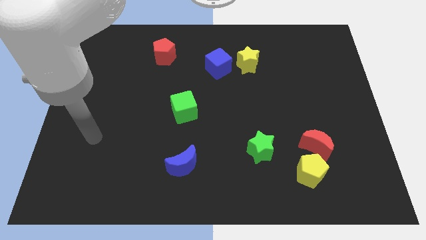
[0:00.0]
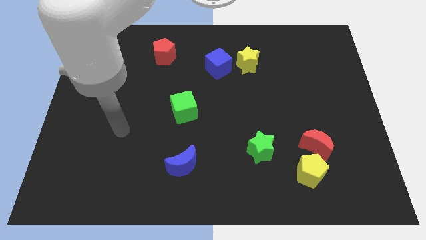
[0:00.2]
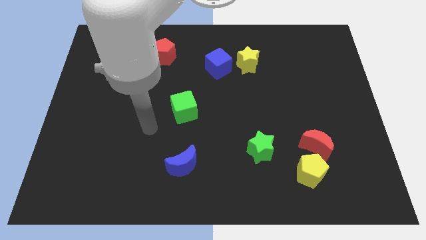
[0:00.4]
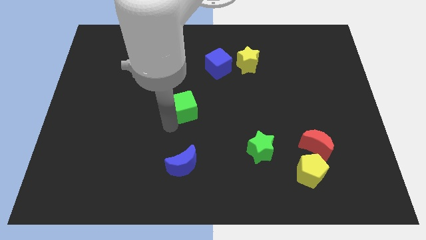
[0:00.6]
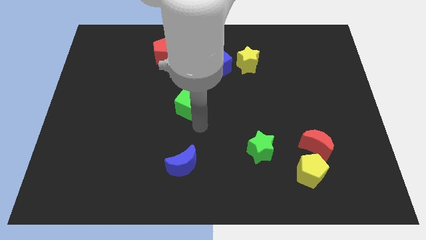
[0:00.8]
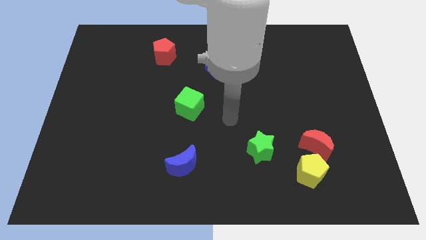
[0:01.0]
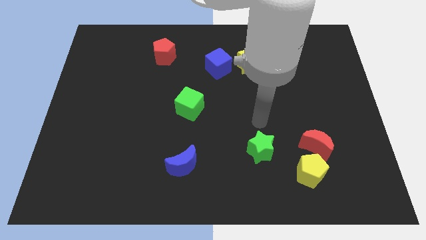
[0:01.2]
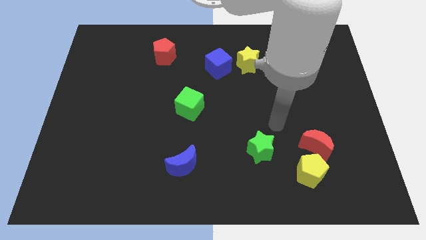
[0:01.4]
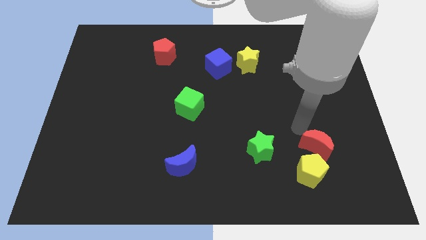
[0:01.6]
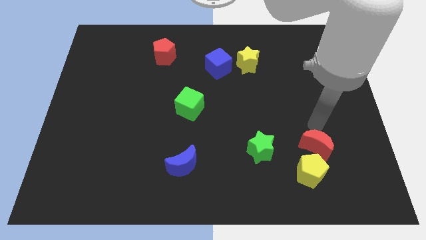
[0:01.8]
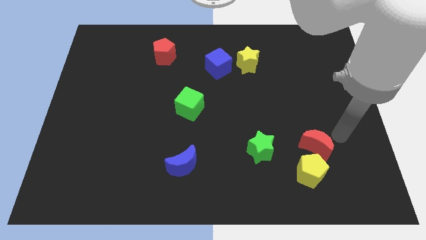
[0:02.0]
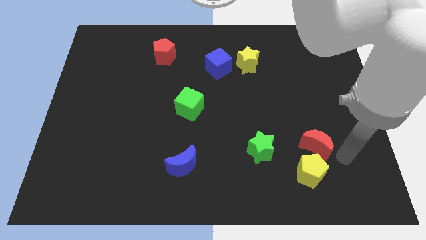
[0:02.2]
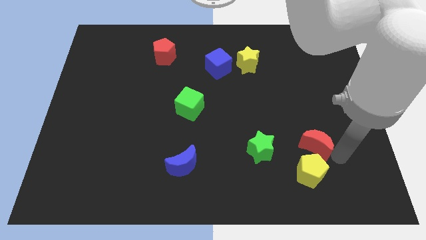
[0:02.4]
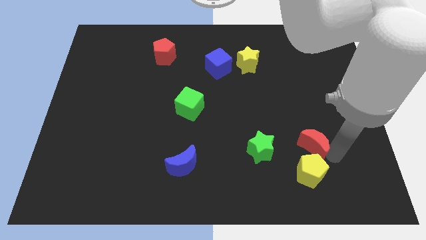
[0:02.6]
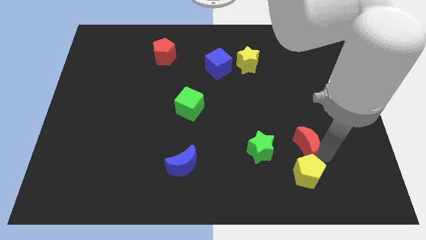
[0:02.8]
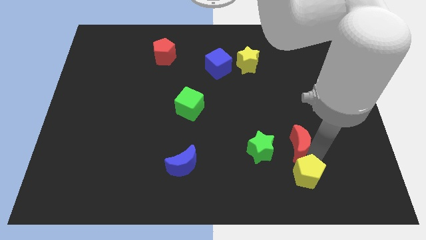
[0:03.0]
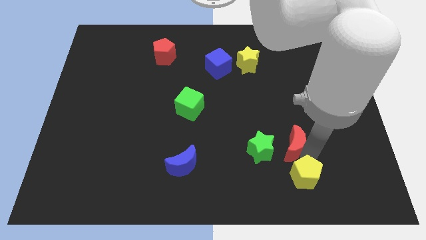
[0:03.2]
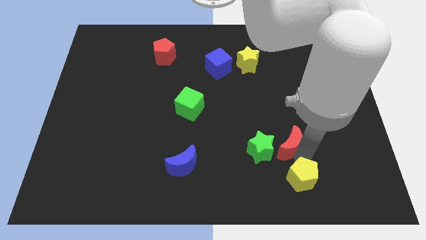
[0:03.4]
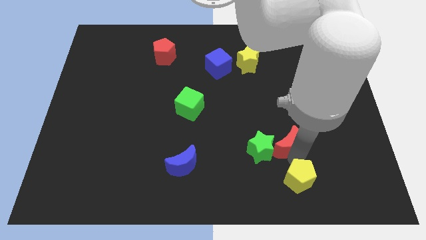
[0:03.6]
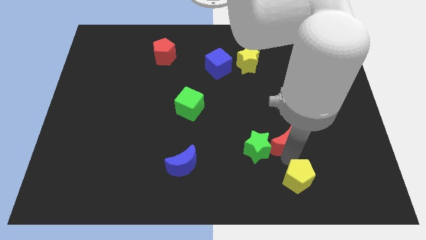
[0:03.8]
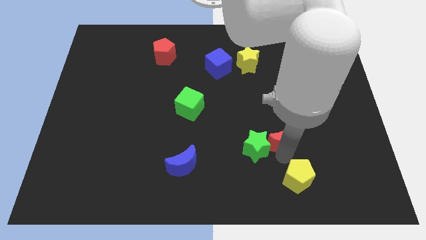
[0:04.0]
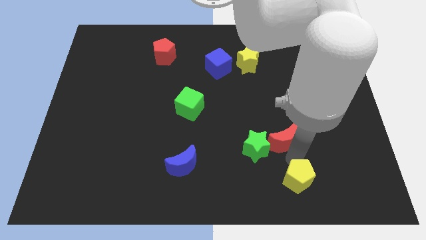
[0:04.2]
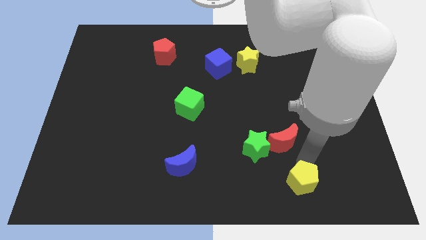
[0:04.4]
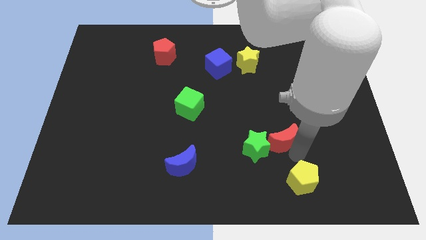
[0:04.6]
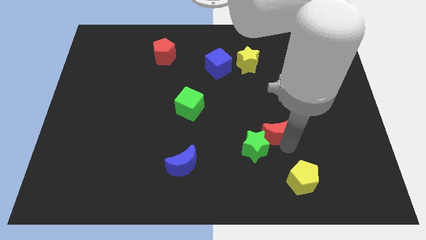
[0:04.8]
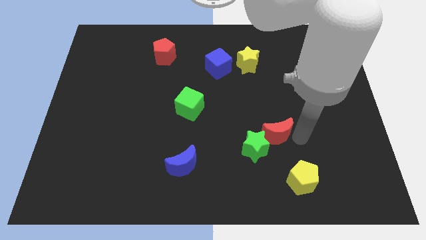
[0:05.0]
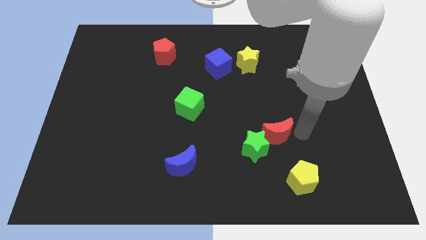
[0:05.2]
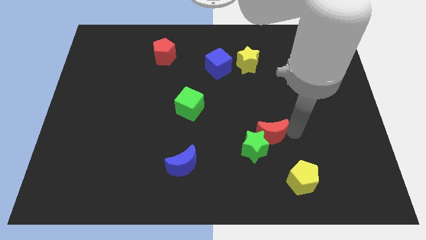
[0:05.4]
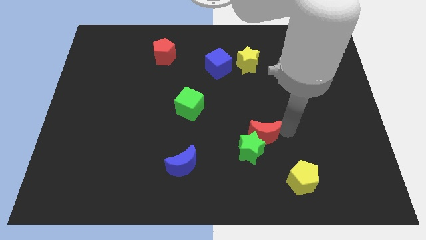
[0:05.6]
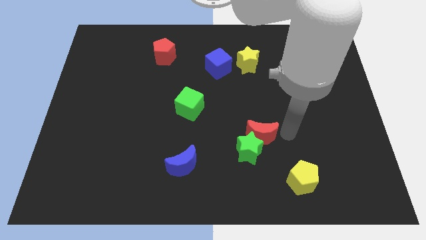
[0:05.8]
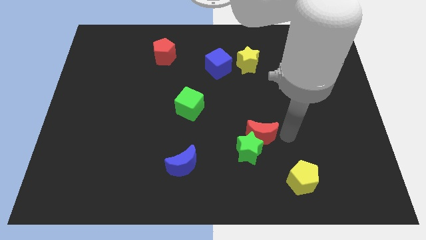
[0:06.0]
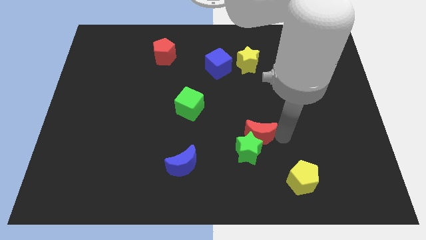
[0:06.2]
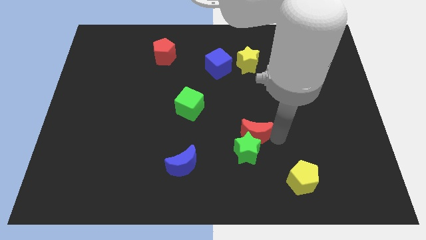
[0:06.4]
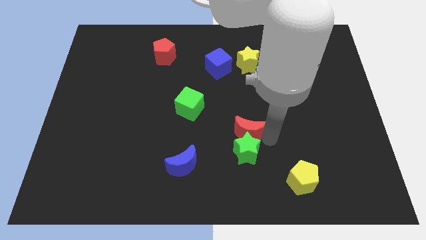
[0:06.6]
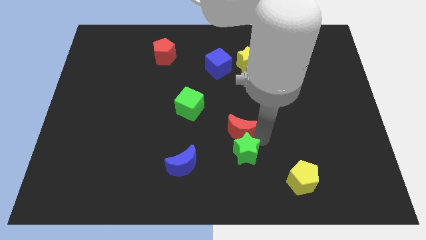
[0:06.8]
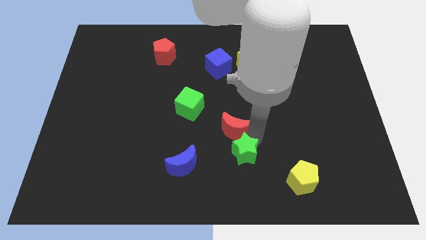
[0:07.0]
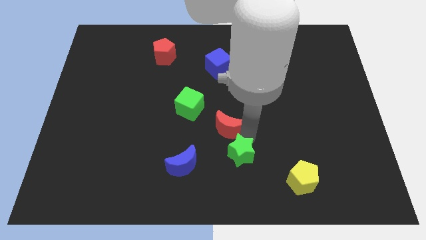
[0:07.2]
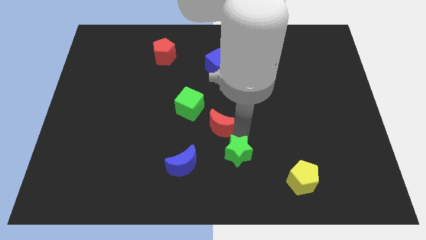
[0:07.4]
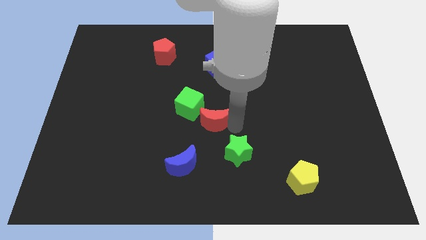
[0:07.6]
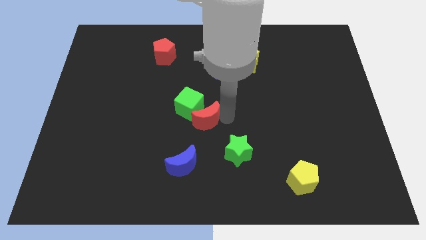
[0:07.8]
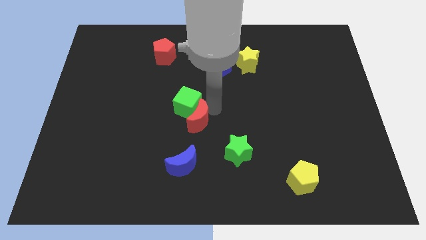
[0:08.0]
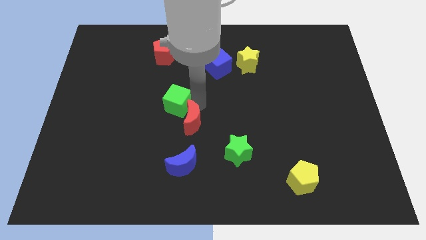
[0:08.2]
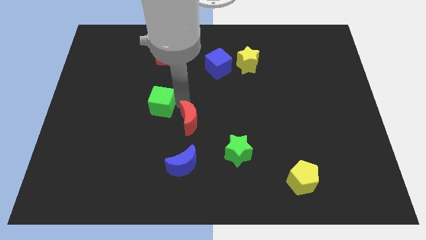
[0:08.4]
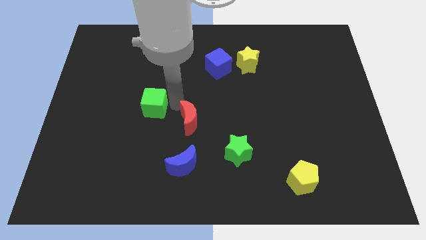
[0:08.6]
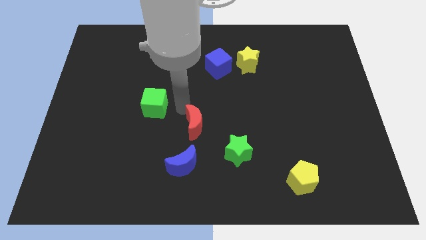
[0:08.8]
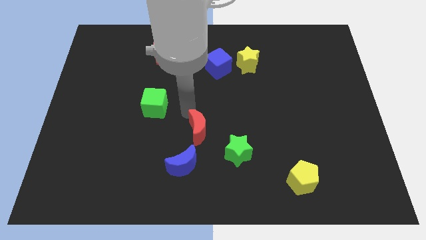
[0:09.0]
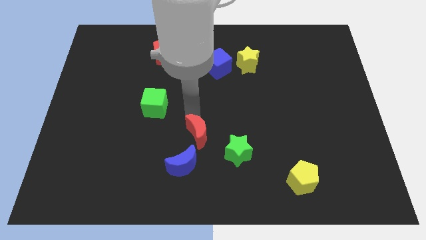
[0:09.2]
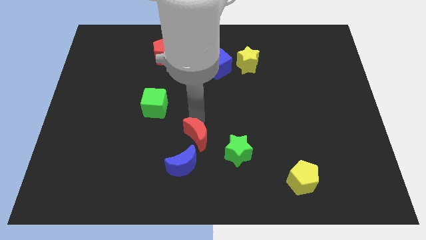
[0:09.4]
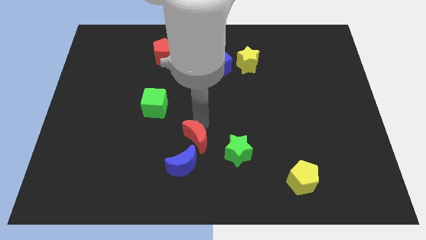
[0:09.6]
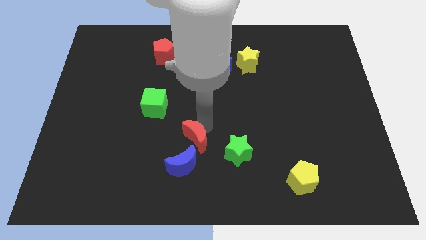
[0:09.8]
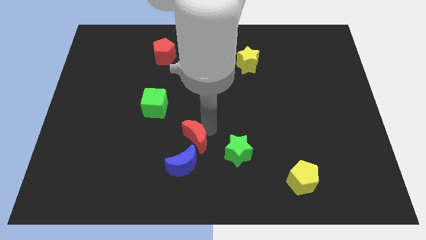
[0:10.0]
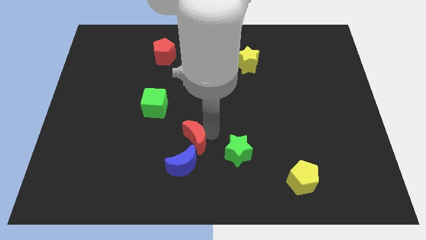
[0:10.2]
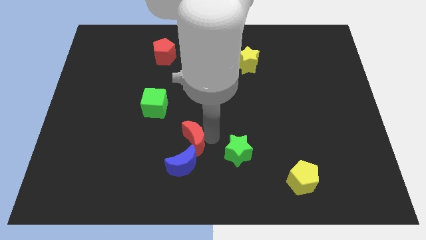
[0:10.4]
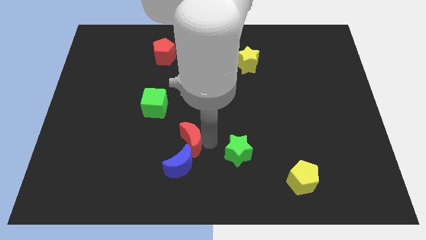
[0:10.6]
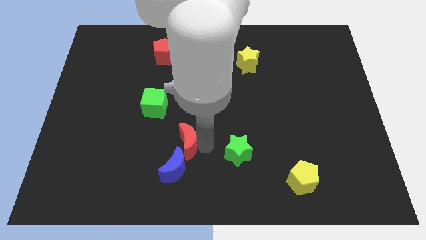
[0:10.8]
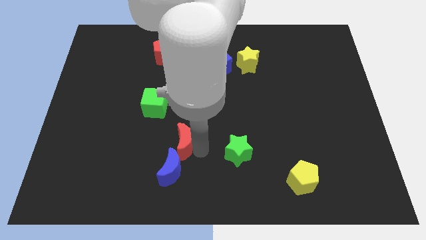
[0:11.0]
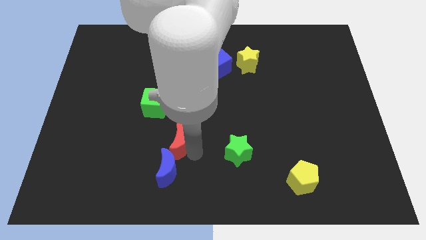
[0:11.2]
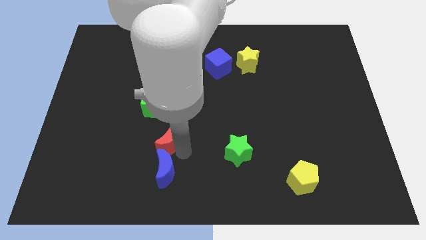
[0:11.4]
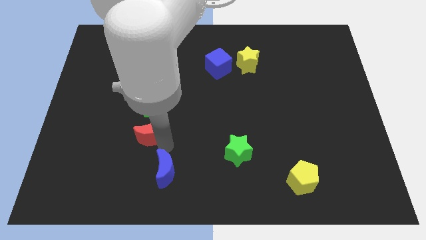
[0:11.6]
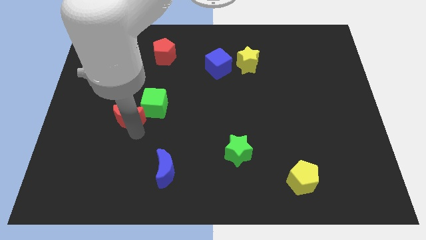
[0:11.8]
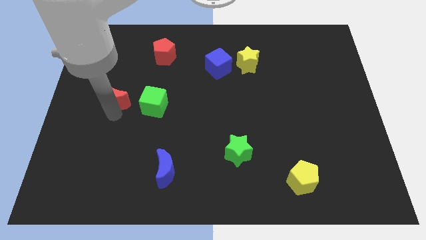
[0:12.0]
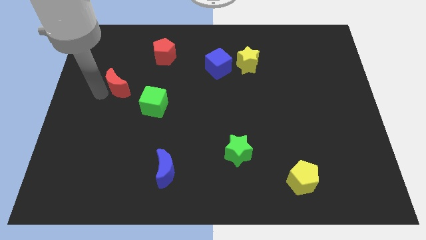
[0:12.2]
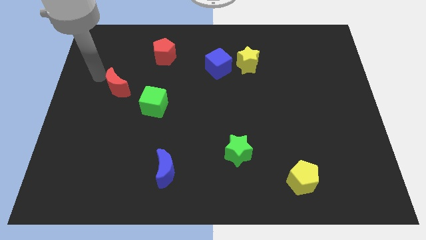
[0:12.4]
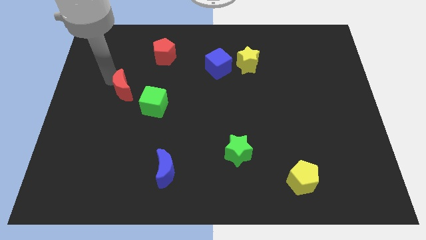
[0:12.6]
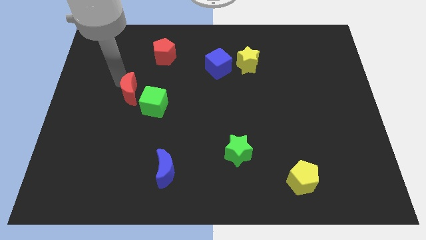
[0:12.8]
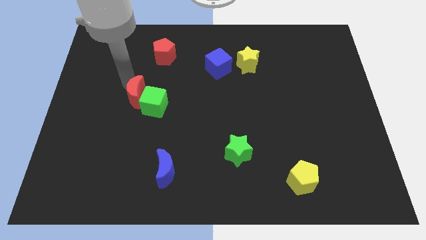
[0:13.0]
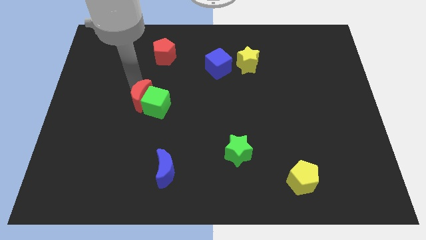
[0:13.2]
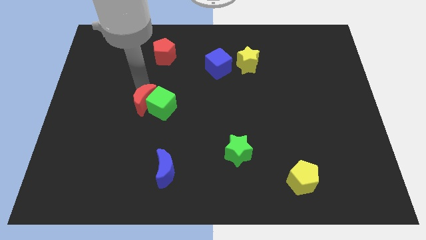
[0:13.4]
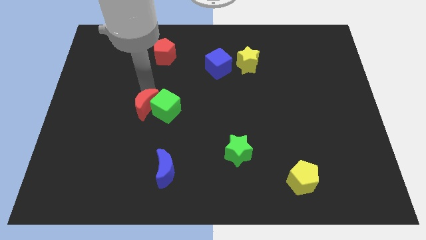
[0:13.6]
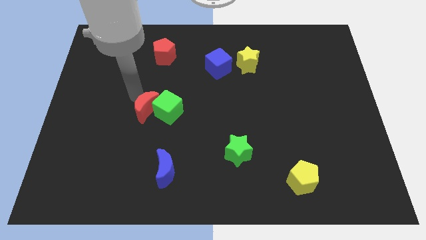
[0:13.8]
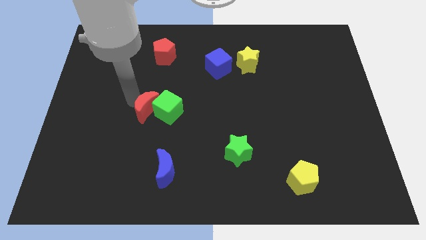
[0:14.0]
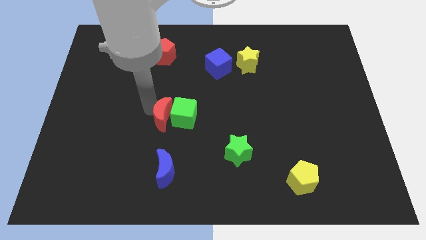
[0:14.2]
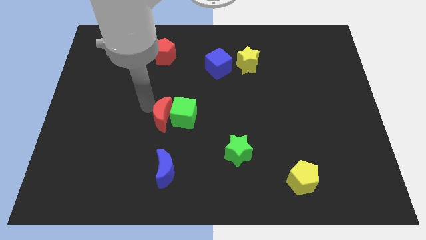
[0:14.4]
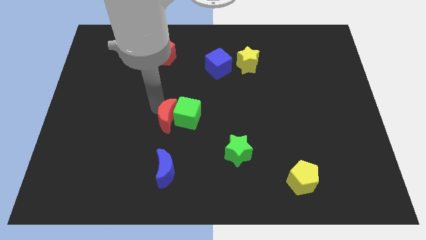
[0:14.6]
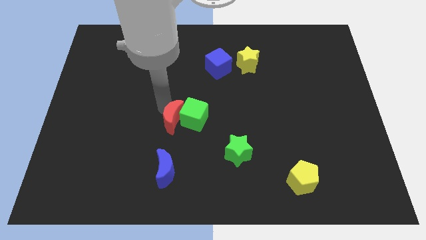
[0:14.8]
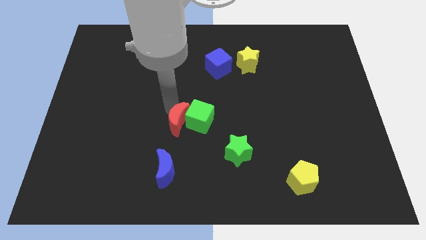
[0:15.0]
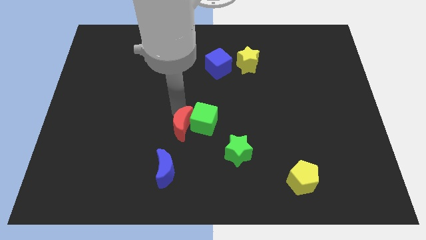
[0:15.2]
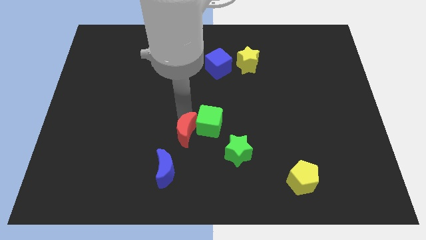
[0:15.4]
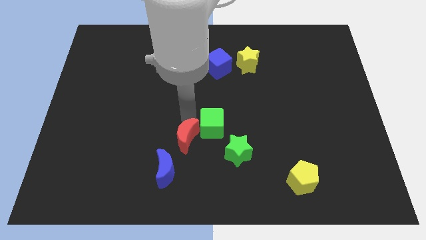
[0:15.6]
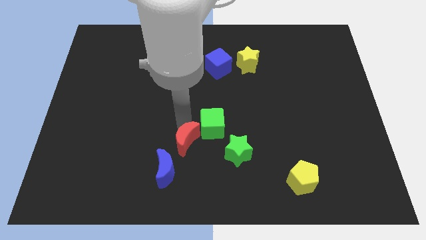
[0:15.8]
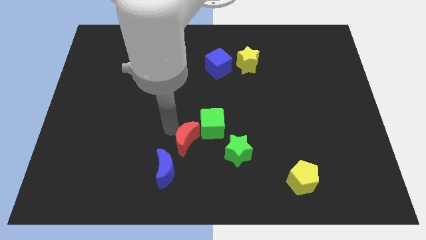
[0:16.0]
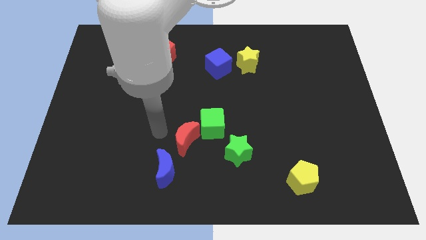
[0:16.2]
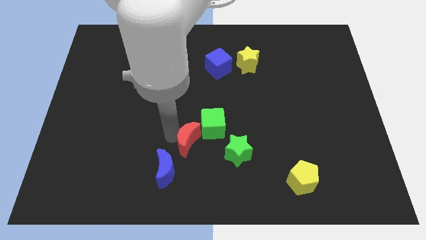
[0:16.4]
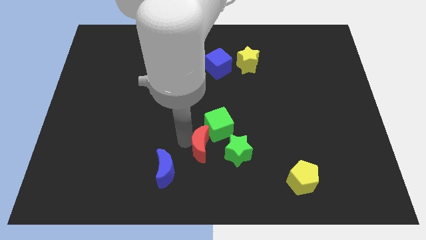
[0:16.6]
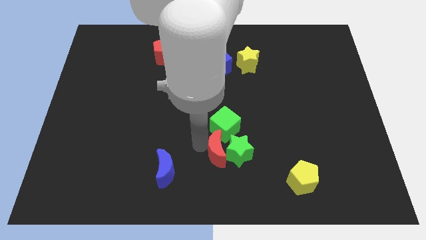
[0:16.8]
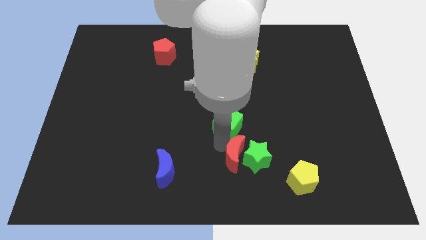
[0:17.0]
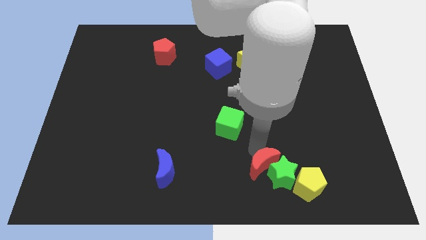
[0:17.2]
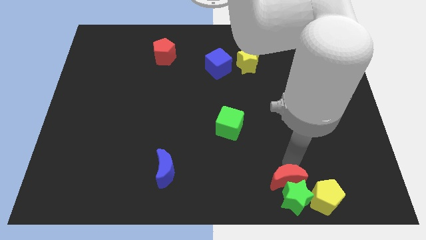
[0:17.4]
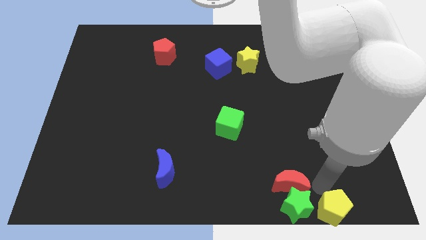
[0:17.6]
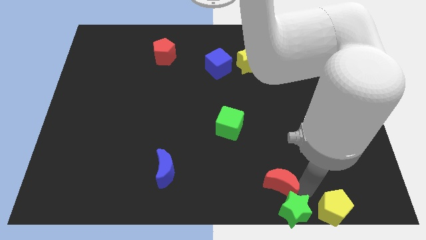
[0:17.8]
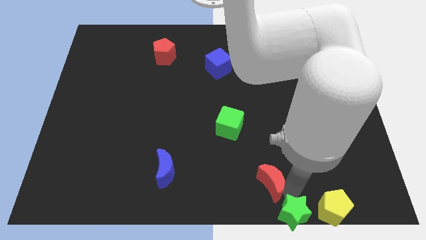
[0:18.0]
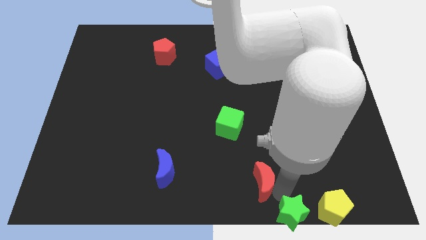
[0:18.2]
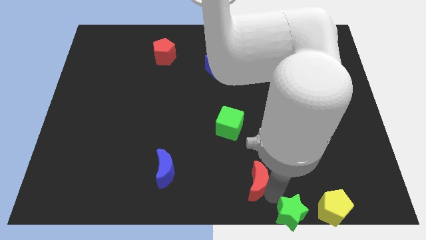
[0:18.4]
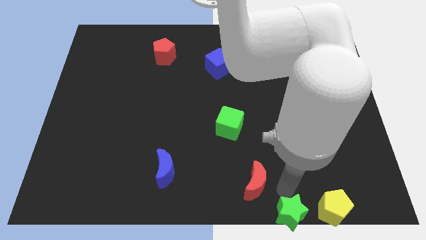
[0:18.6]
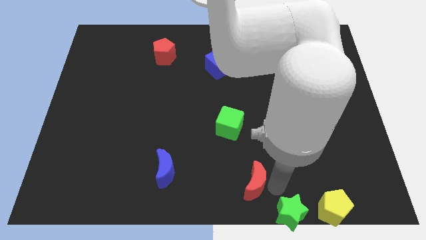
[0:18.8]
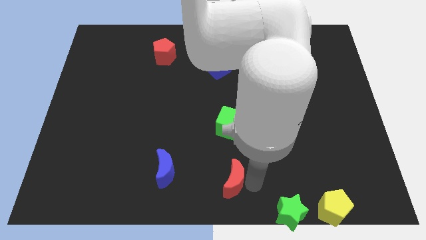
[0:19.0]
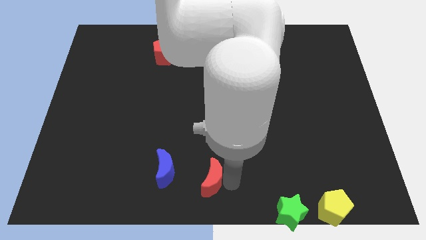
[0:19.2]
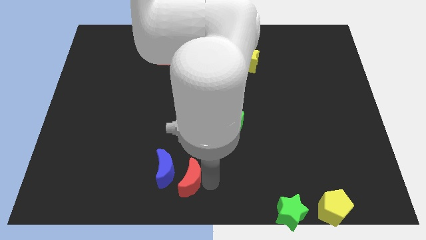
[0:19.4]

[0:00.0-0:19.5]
push the red moon to the blue moon
